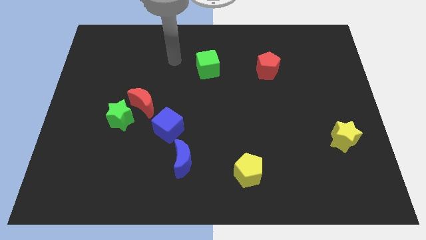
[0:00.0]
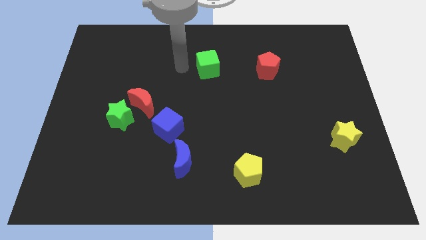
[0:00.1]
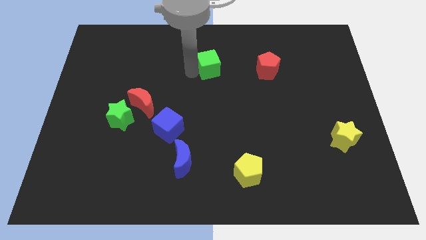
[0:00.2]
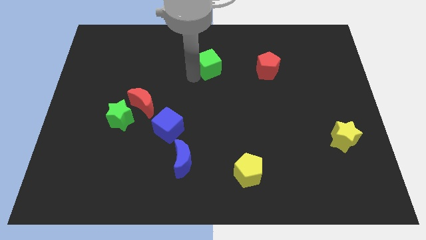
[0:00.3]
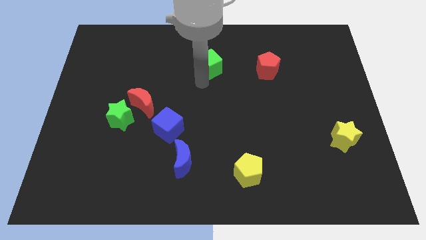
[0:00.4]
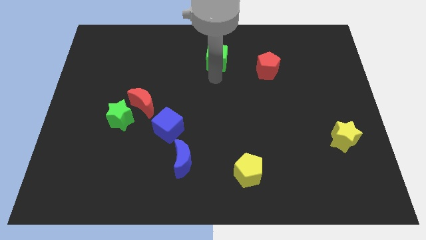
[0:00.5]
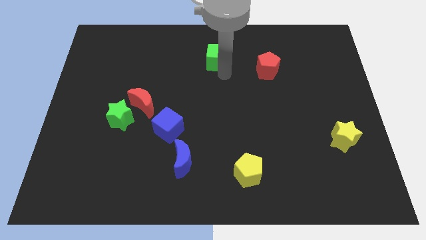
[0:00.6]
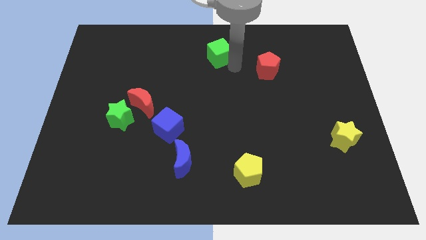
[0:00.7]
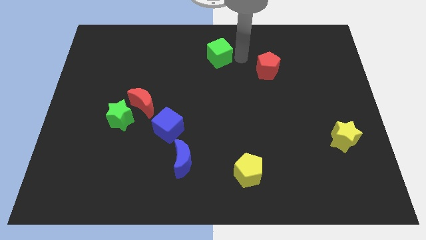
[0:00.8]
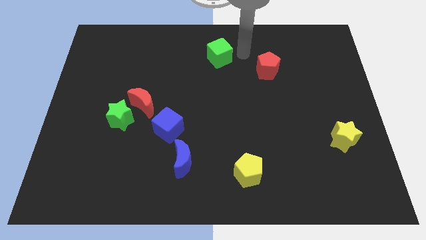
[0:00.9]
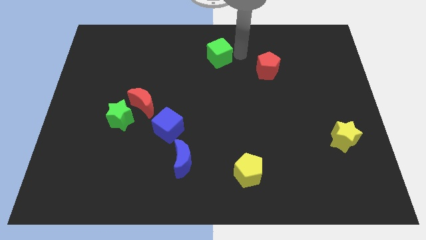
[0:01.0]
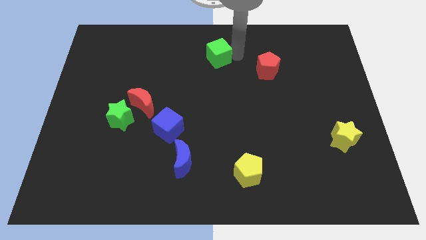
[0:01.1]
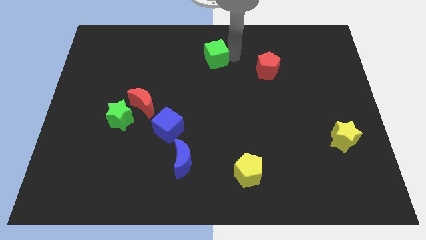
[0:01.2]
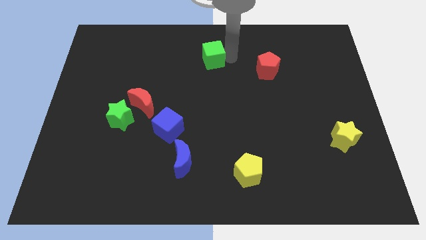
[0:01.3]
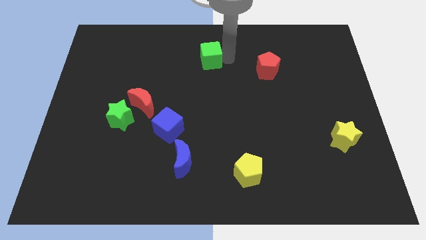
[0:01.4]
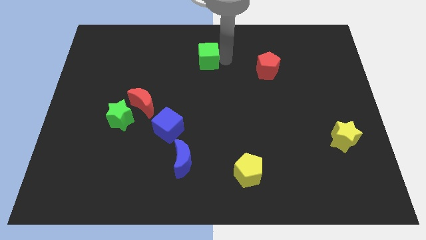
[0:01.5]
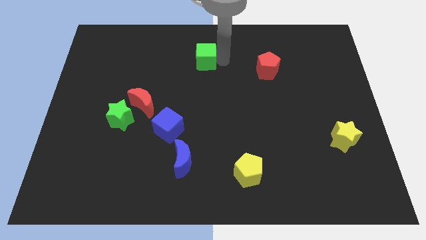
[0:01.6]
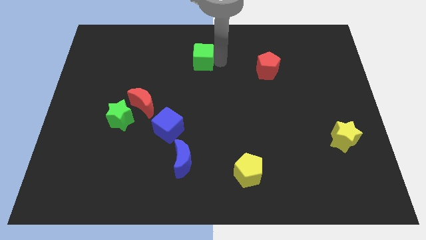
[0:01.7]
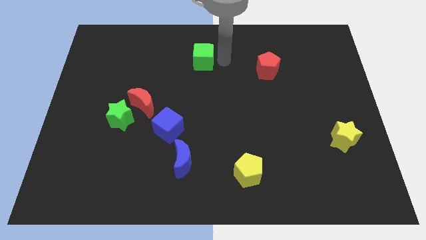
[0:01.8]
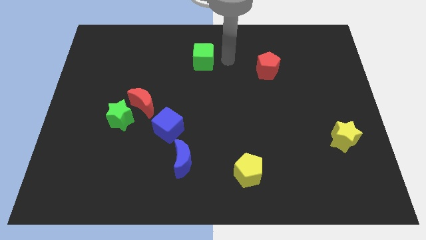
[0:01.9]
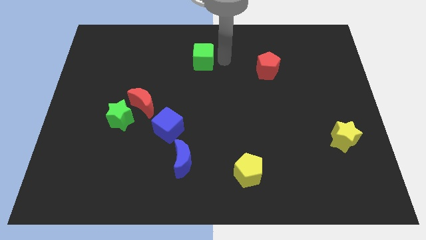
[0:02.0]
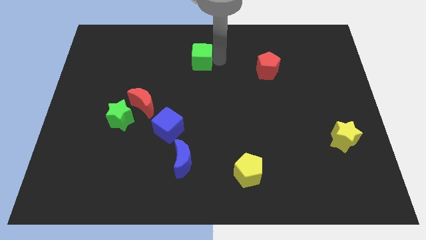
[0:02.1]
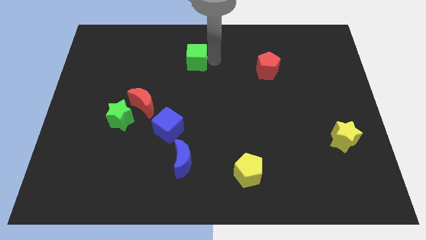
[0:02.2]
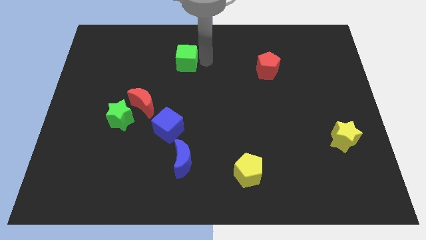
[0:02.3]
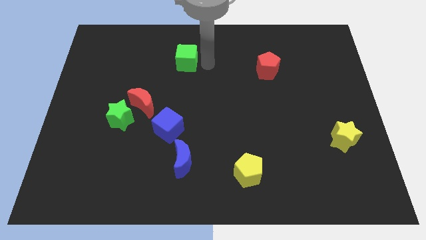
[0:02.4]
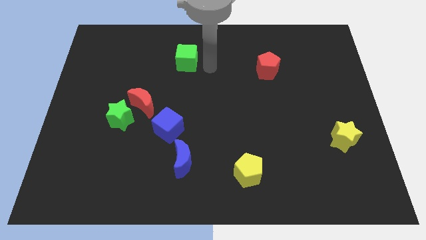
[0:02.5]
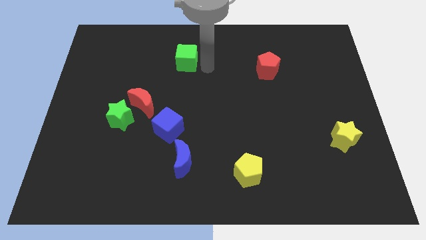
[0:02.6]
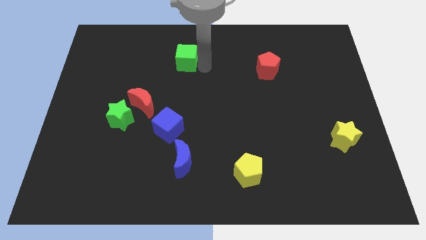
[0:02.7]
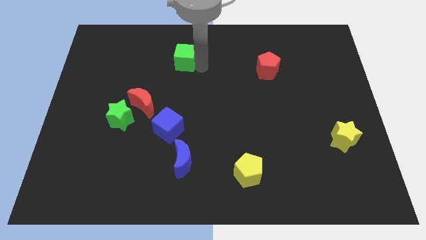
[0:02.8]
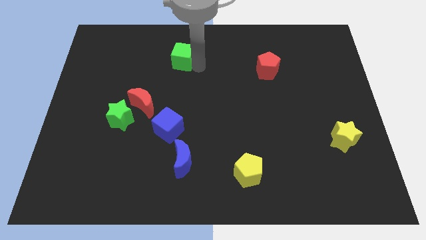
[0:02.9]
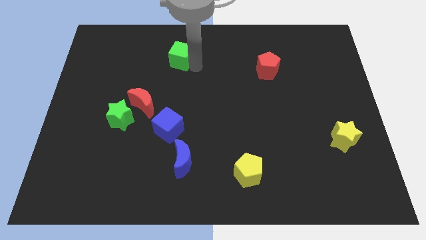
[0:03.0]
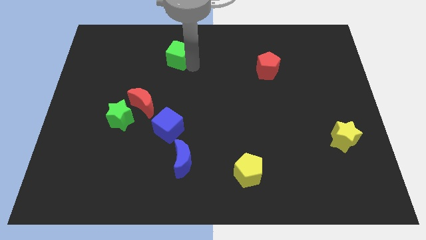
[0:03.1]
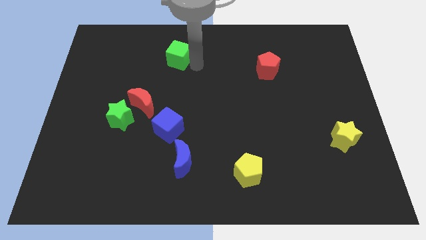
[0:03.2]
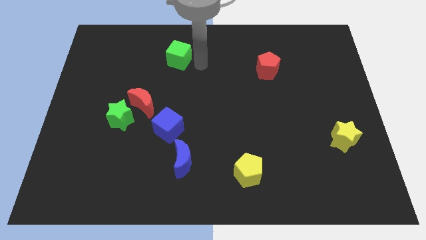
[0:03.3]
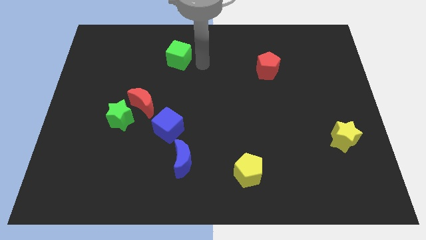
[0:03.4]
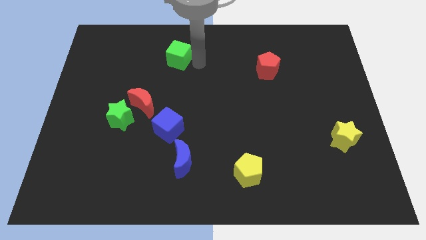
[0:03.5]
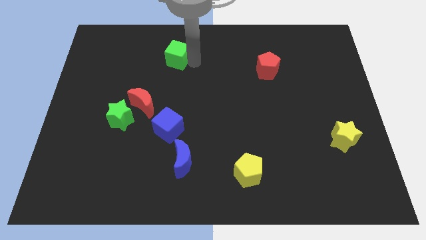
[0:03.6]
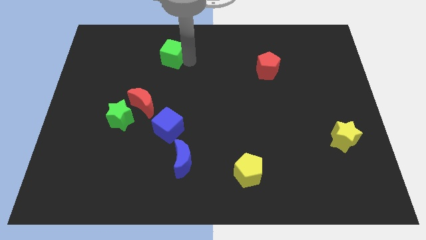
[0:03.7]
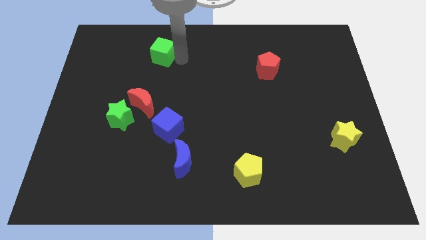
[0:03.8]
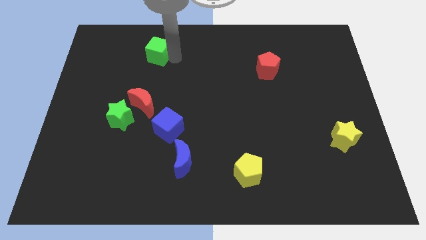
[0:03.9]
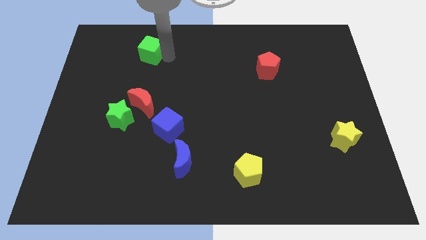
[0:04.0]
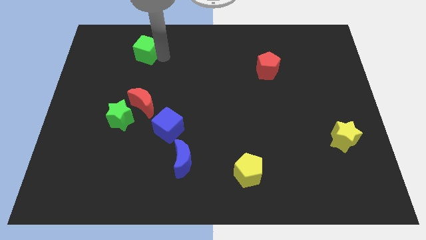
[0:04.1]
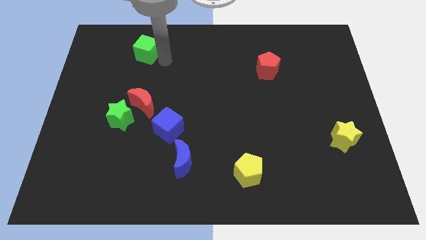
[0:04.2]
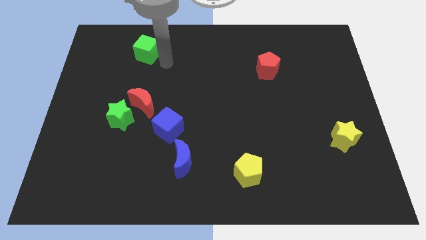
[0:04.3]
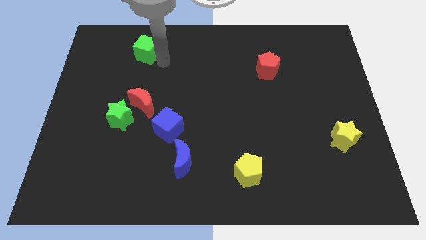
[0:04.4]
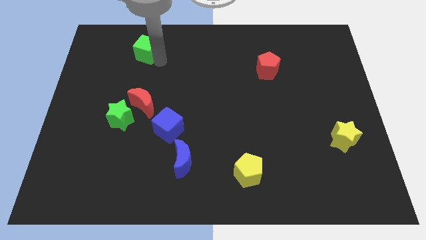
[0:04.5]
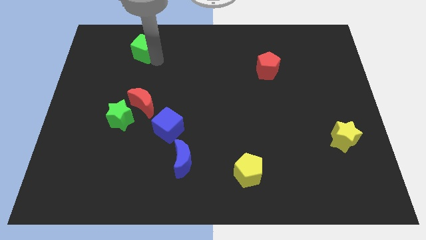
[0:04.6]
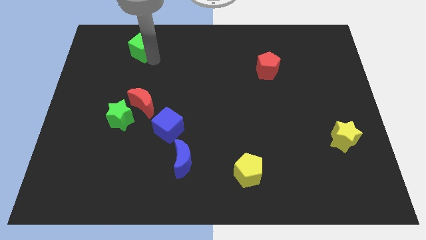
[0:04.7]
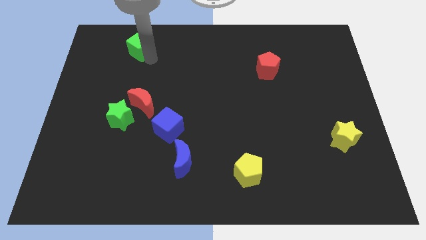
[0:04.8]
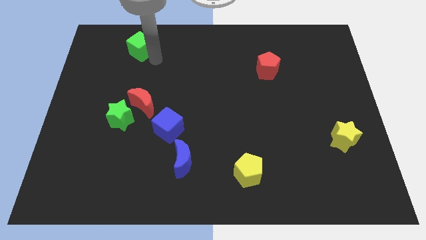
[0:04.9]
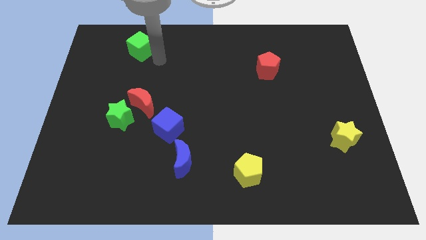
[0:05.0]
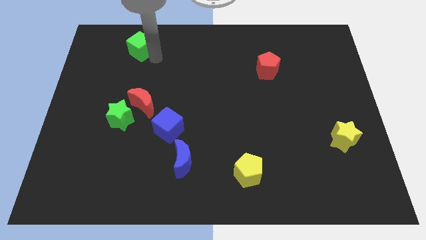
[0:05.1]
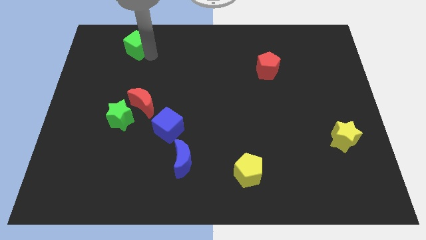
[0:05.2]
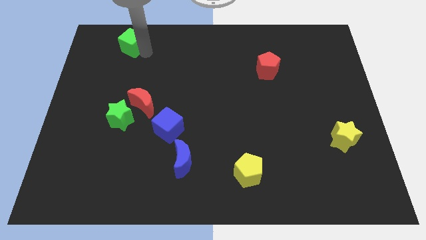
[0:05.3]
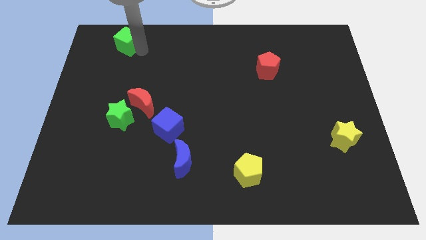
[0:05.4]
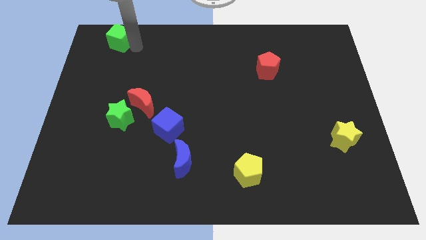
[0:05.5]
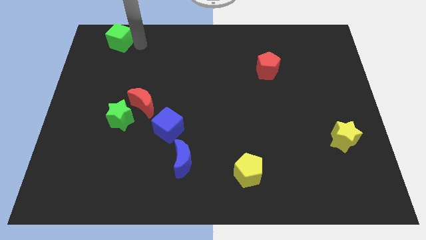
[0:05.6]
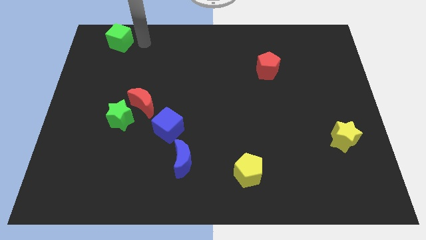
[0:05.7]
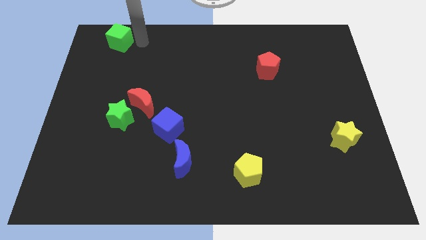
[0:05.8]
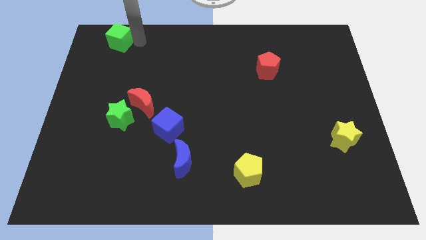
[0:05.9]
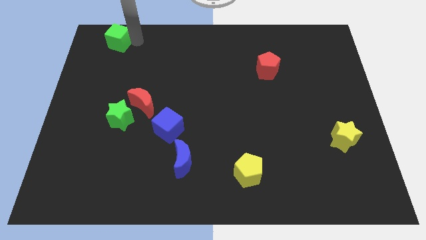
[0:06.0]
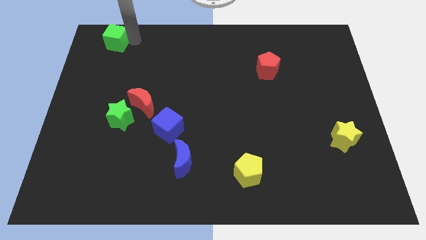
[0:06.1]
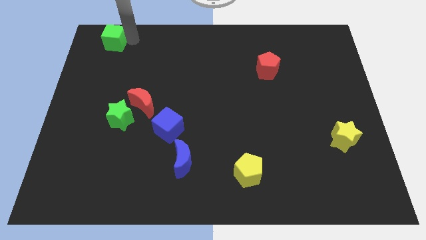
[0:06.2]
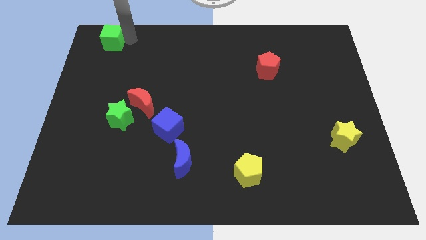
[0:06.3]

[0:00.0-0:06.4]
push the green cube to the top left of the board
